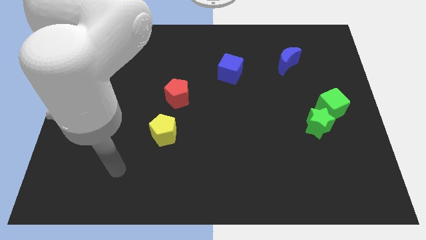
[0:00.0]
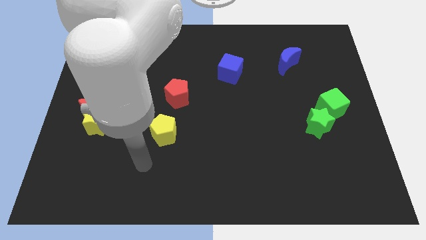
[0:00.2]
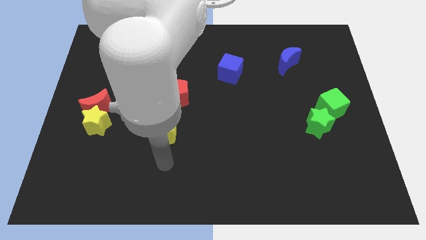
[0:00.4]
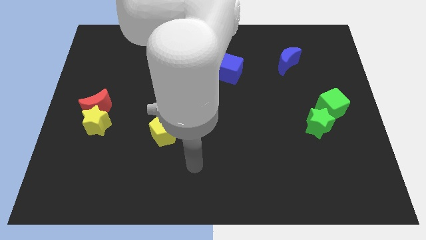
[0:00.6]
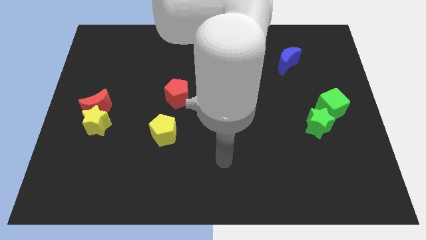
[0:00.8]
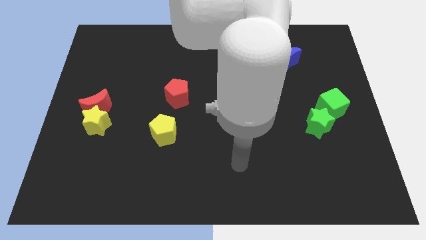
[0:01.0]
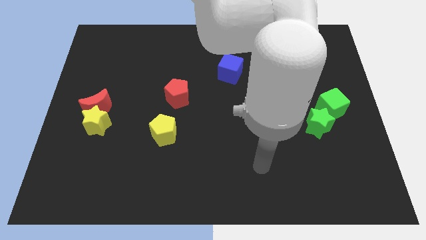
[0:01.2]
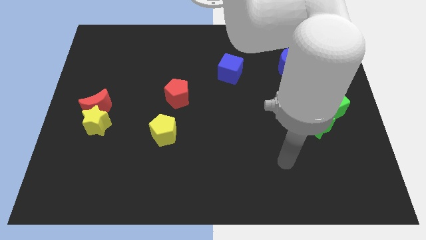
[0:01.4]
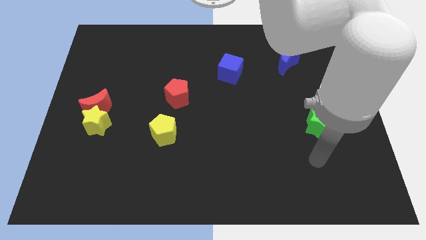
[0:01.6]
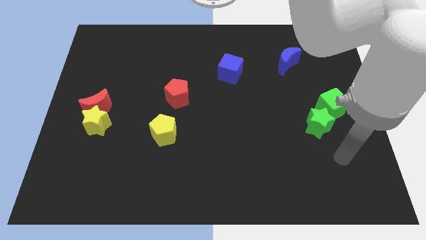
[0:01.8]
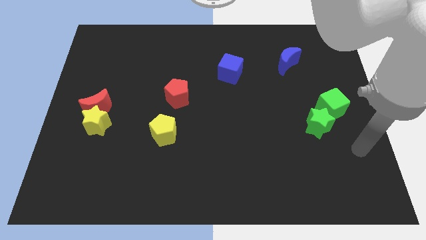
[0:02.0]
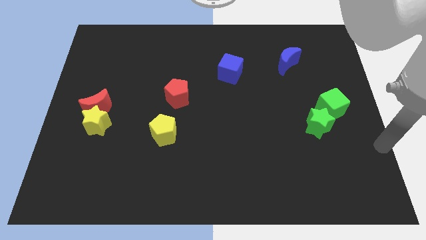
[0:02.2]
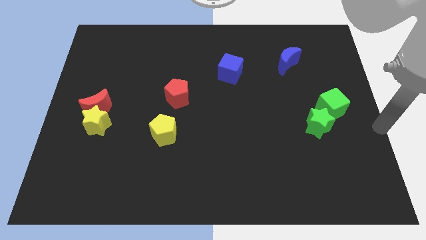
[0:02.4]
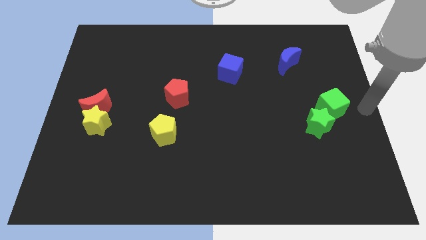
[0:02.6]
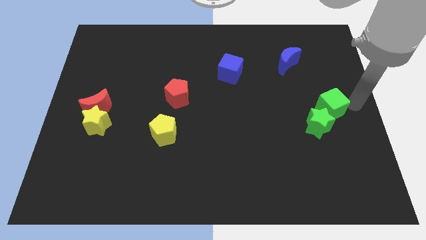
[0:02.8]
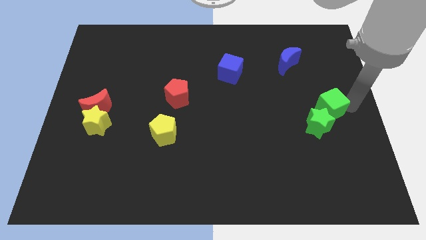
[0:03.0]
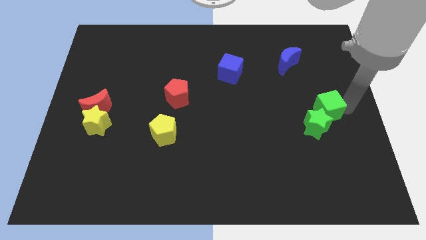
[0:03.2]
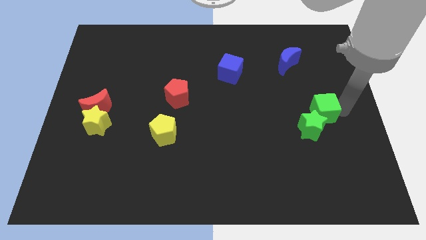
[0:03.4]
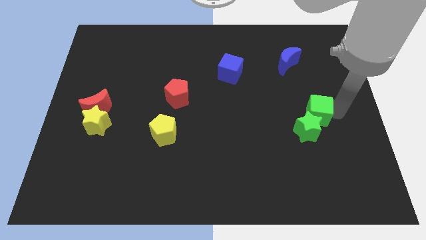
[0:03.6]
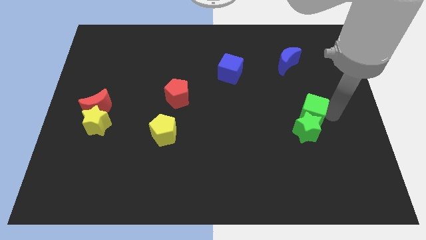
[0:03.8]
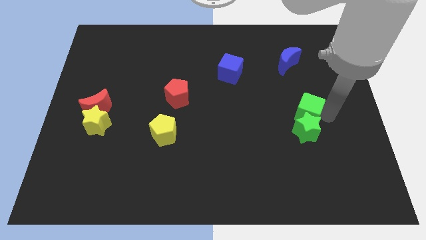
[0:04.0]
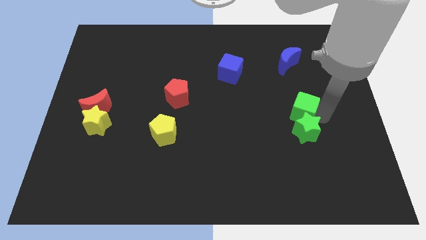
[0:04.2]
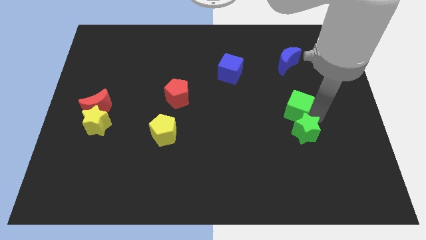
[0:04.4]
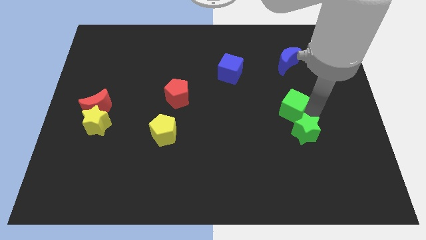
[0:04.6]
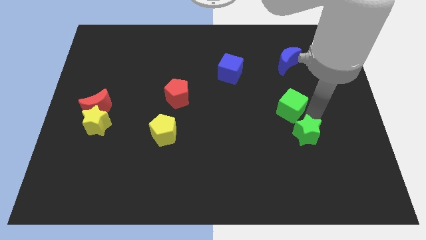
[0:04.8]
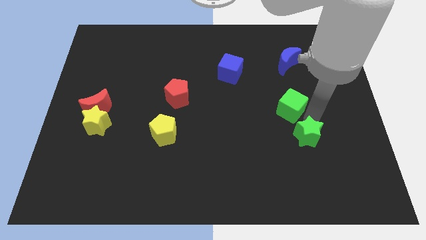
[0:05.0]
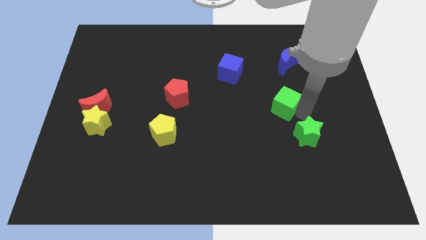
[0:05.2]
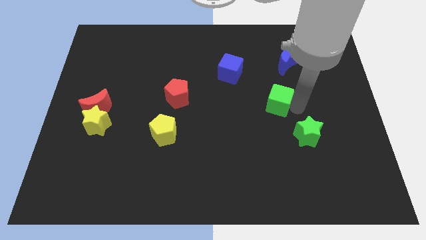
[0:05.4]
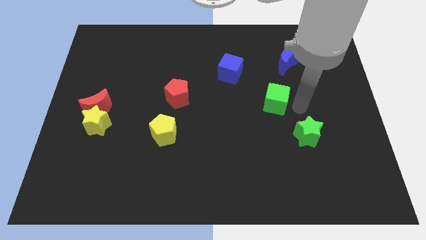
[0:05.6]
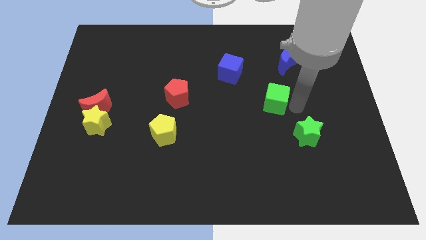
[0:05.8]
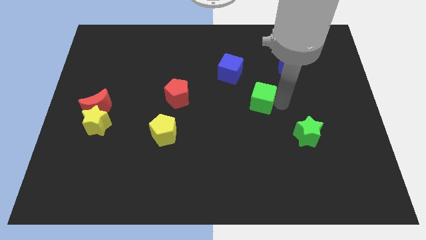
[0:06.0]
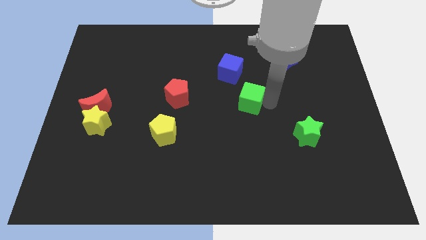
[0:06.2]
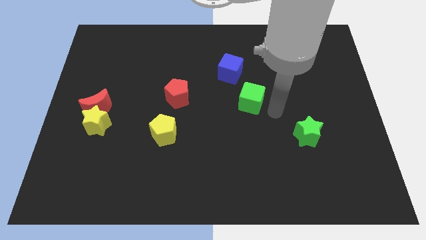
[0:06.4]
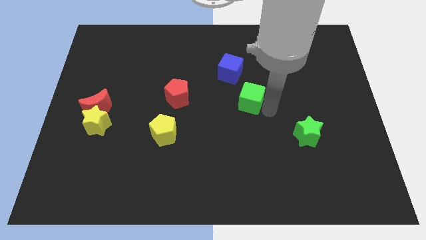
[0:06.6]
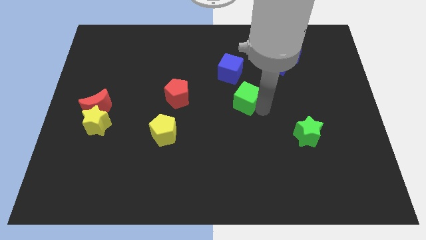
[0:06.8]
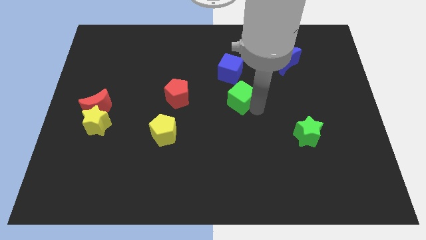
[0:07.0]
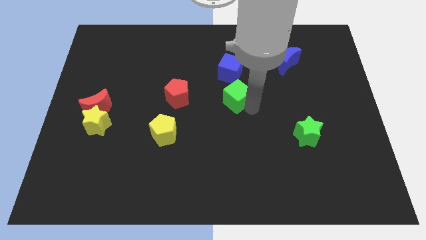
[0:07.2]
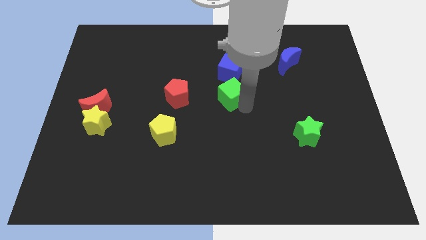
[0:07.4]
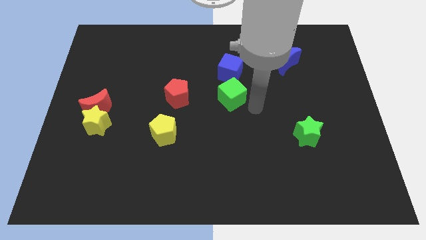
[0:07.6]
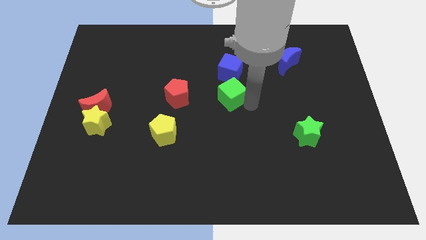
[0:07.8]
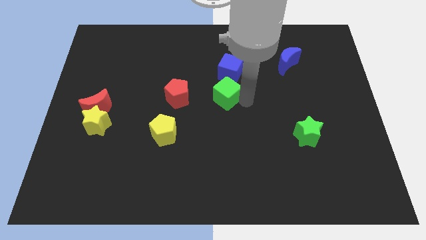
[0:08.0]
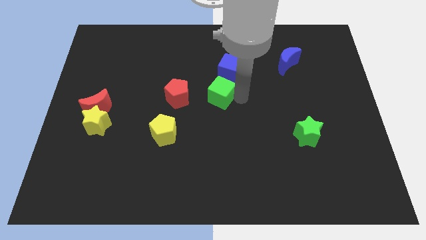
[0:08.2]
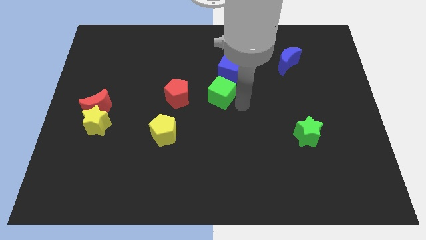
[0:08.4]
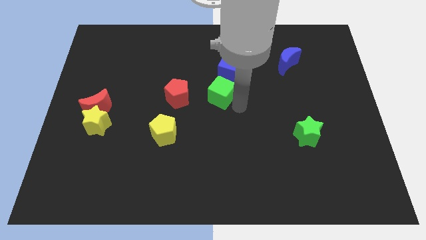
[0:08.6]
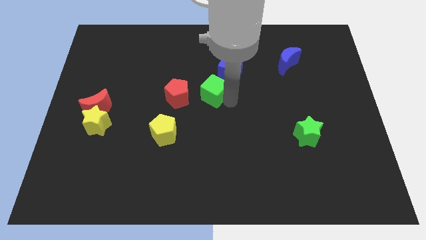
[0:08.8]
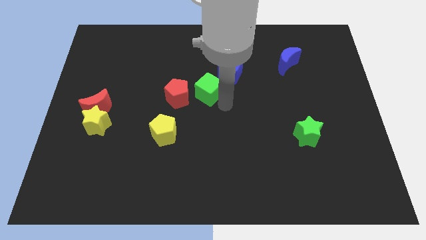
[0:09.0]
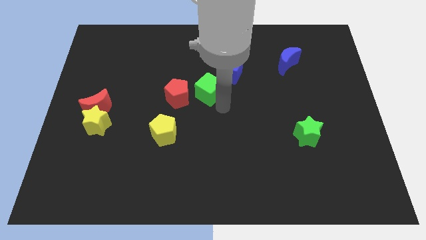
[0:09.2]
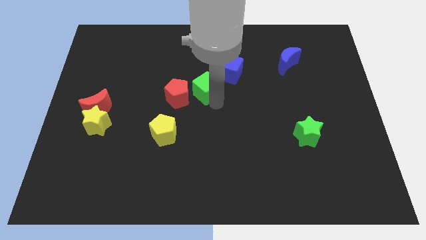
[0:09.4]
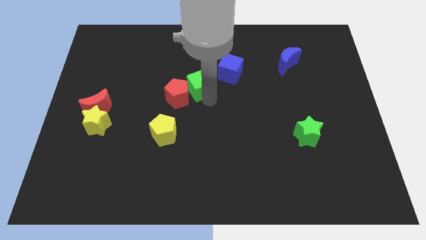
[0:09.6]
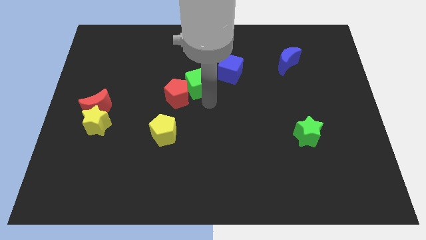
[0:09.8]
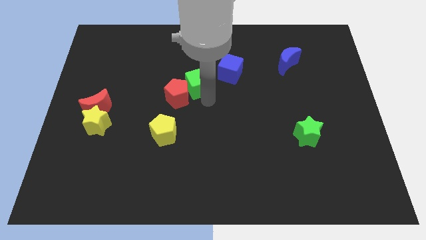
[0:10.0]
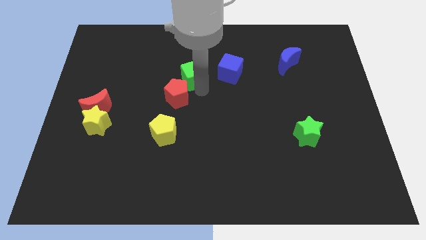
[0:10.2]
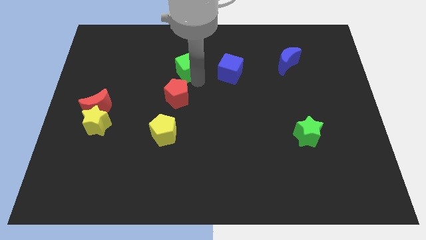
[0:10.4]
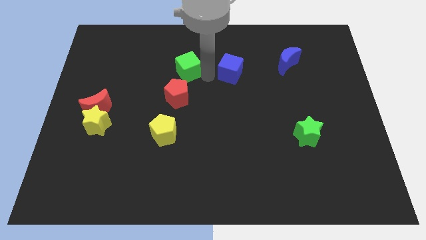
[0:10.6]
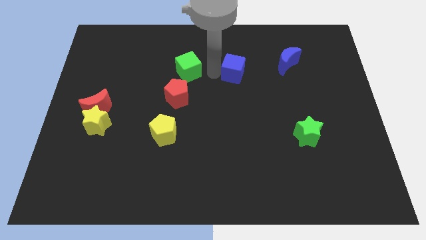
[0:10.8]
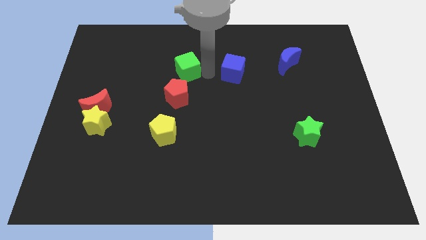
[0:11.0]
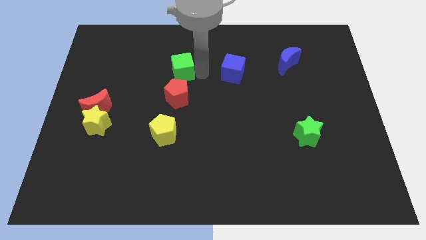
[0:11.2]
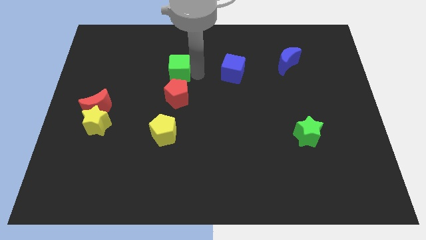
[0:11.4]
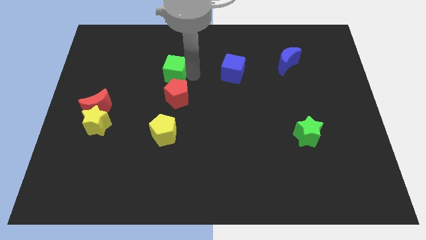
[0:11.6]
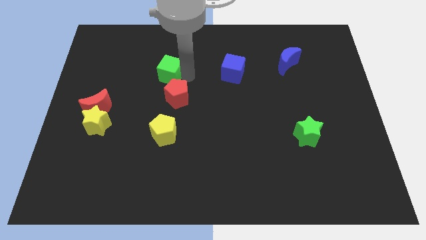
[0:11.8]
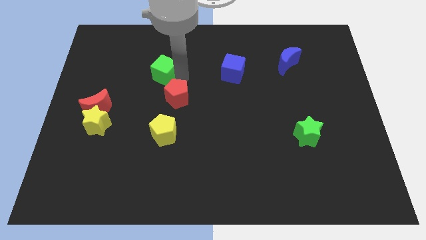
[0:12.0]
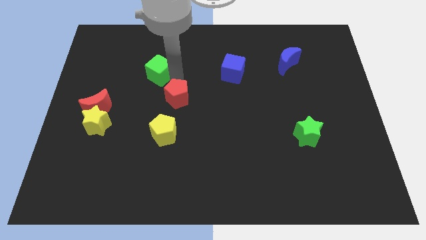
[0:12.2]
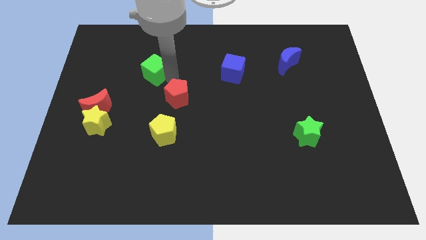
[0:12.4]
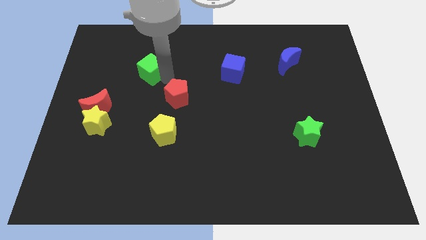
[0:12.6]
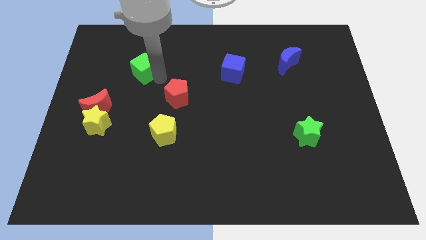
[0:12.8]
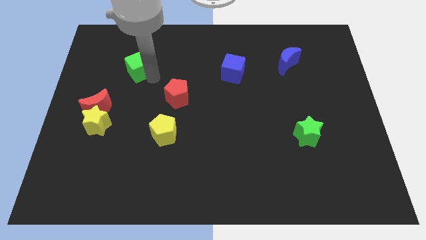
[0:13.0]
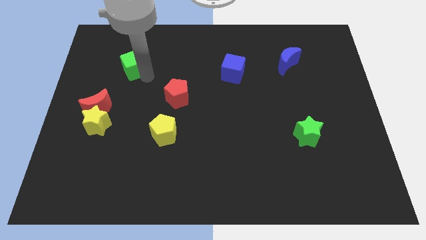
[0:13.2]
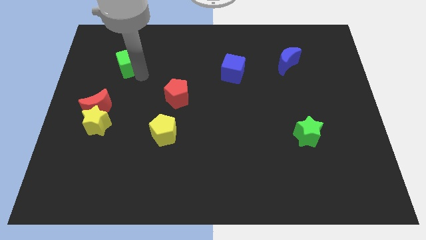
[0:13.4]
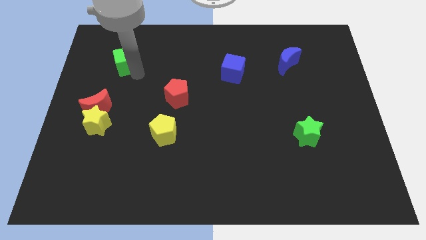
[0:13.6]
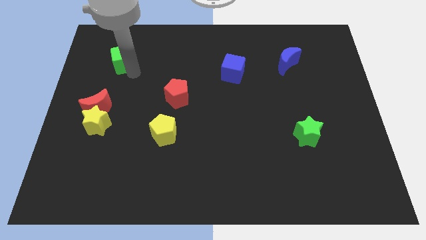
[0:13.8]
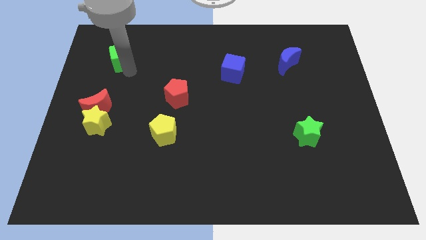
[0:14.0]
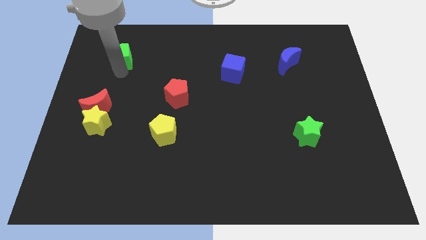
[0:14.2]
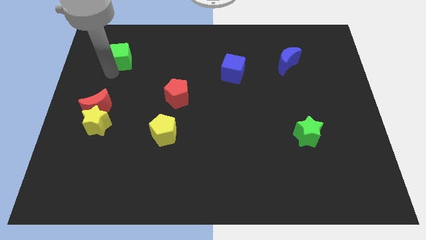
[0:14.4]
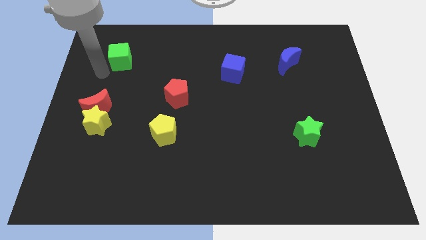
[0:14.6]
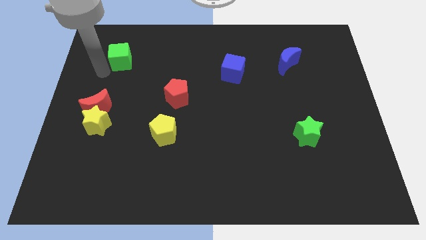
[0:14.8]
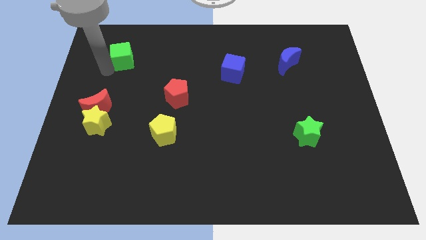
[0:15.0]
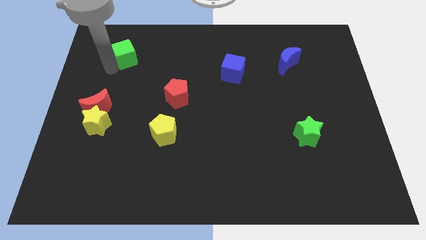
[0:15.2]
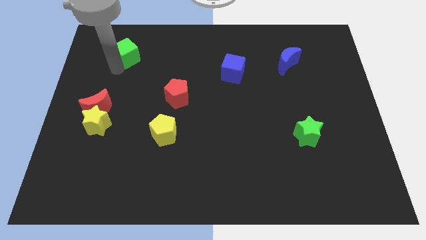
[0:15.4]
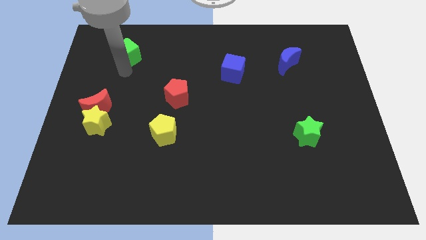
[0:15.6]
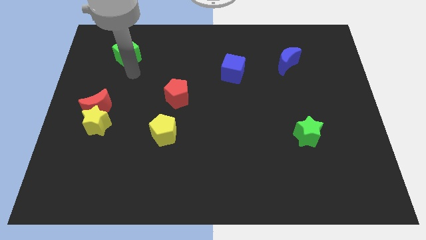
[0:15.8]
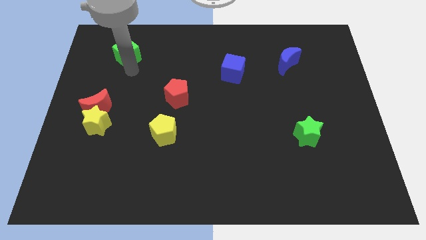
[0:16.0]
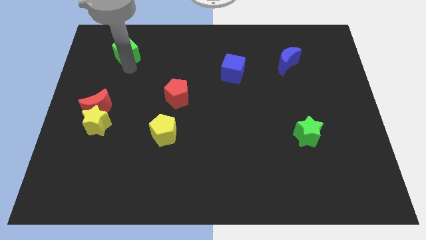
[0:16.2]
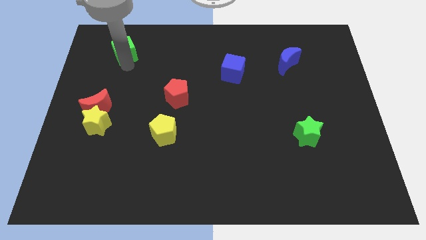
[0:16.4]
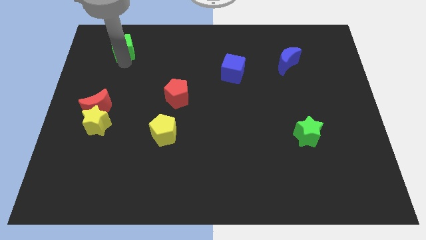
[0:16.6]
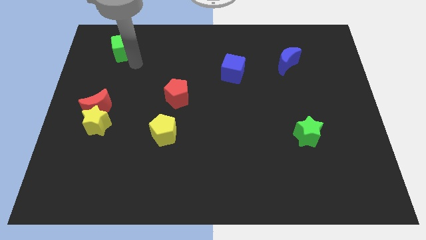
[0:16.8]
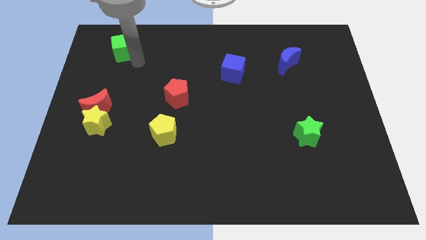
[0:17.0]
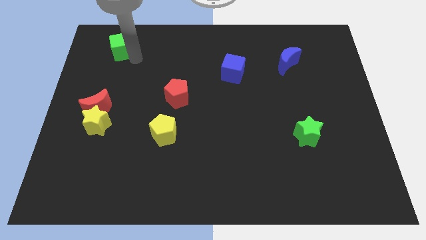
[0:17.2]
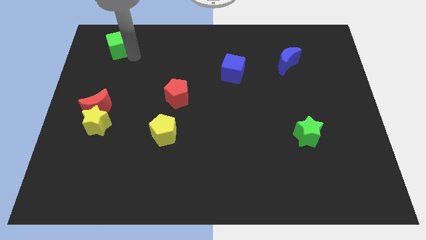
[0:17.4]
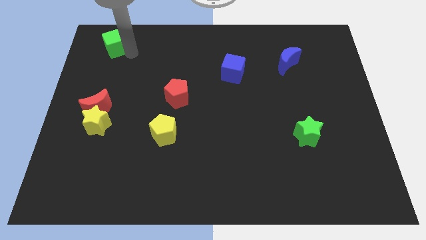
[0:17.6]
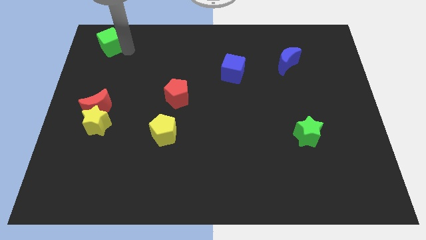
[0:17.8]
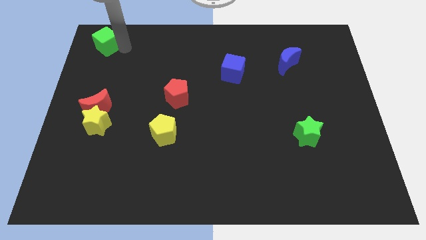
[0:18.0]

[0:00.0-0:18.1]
move the green cube to the top left
